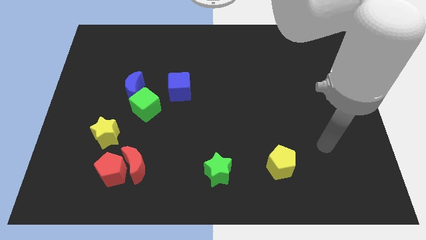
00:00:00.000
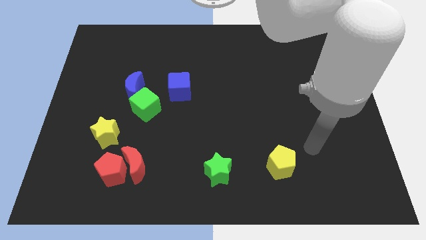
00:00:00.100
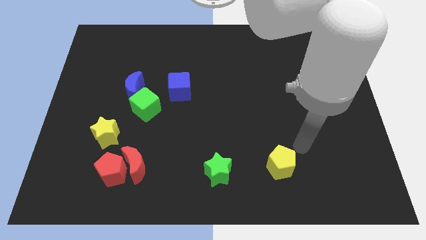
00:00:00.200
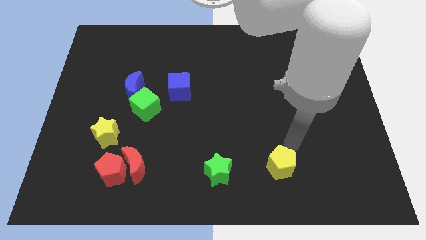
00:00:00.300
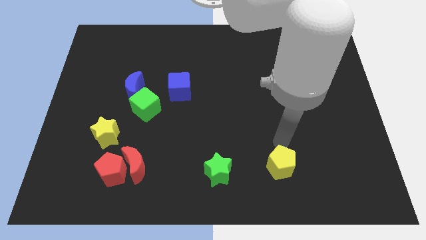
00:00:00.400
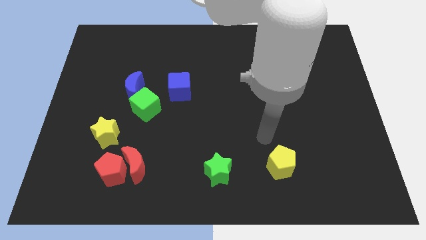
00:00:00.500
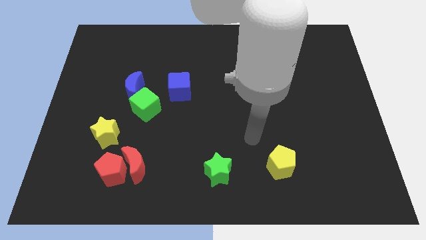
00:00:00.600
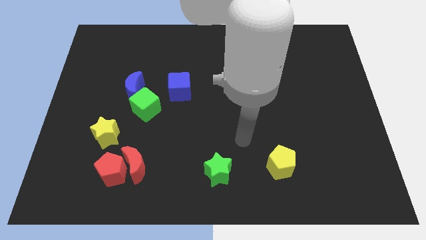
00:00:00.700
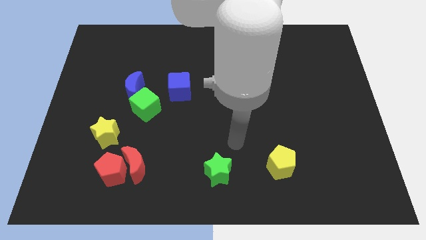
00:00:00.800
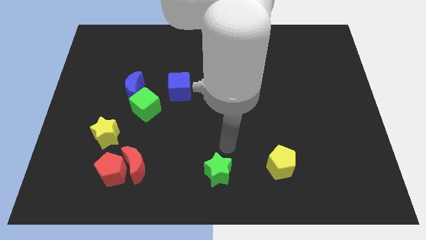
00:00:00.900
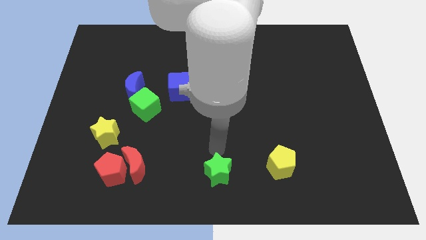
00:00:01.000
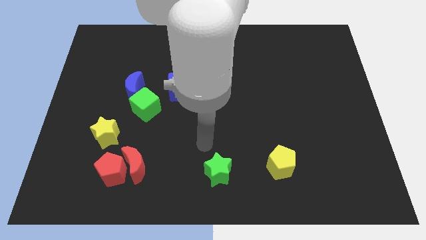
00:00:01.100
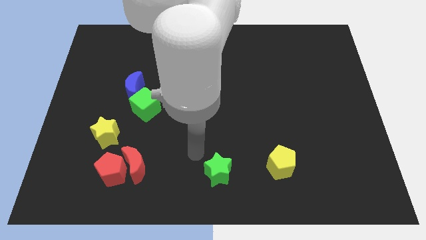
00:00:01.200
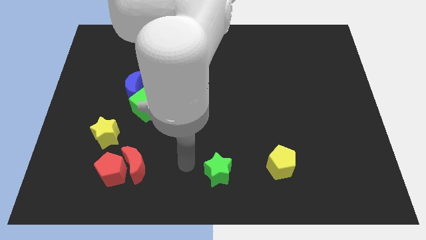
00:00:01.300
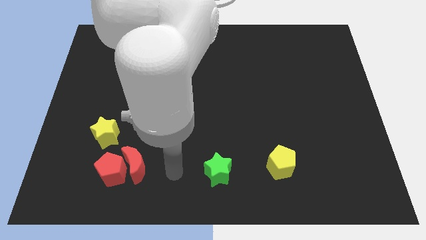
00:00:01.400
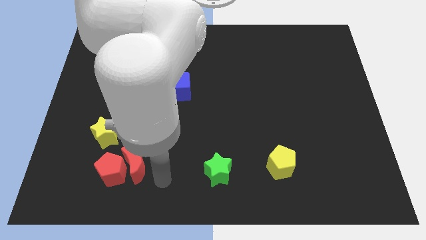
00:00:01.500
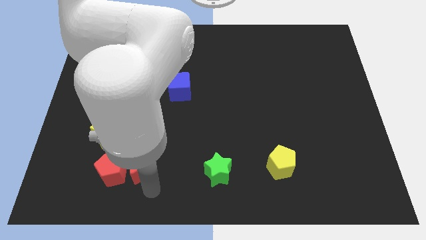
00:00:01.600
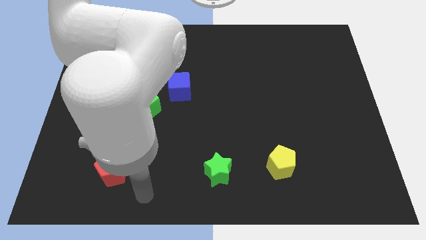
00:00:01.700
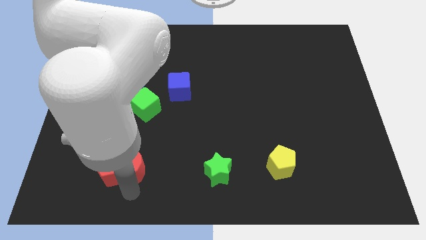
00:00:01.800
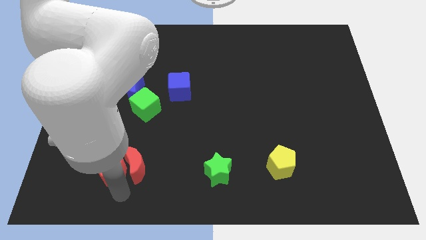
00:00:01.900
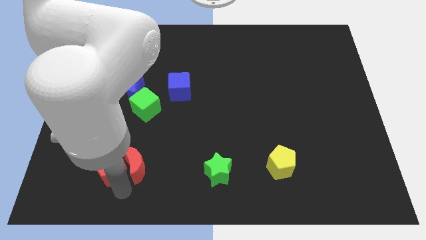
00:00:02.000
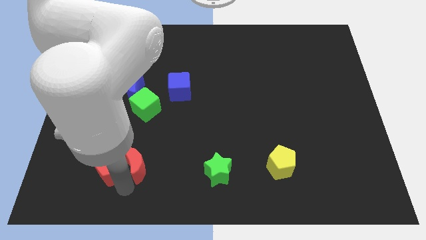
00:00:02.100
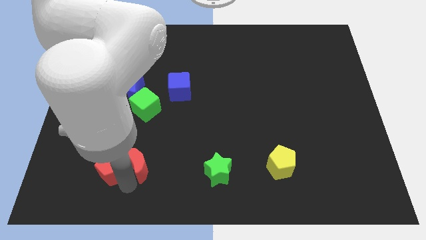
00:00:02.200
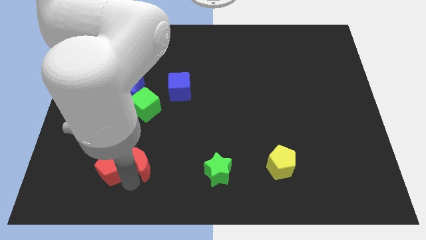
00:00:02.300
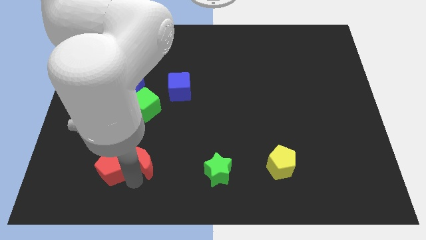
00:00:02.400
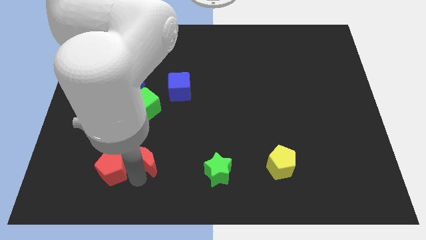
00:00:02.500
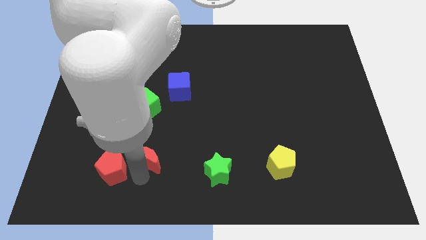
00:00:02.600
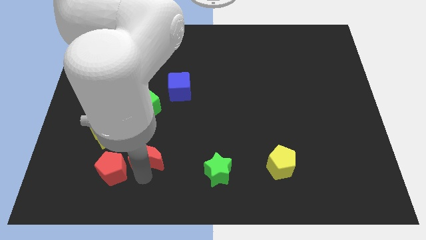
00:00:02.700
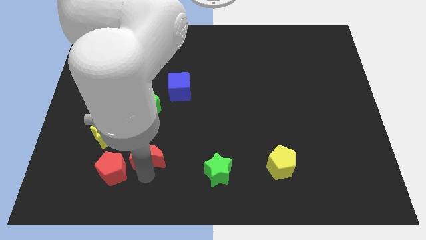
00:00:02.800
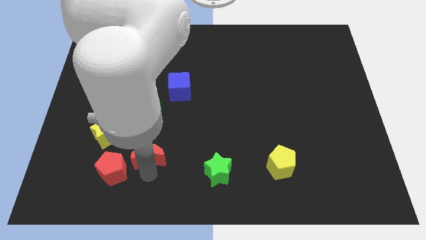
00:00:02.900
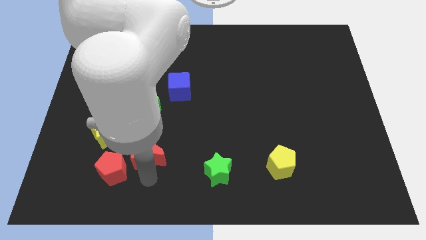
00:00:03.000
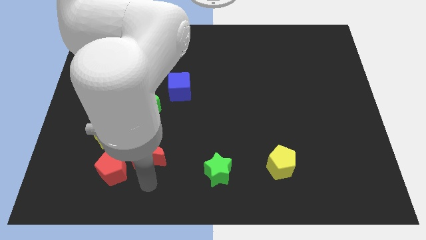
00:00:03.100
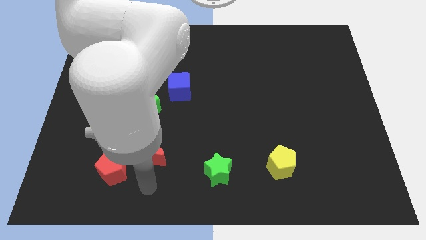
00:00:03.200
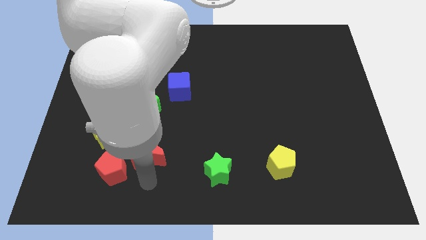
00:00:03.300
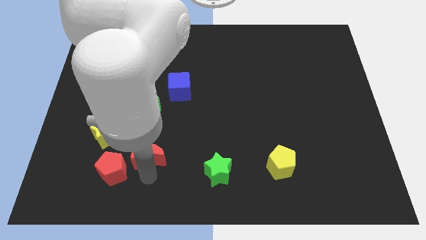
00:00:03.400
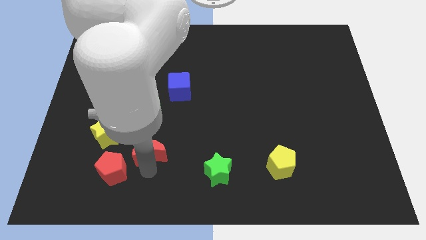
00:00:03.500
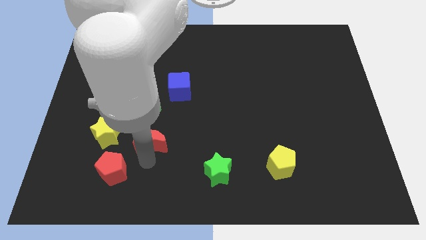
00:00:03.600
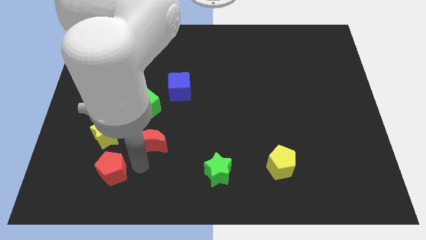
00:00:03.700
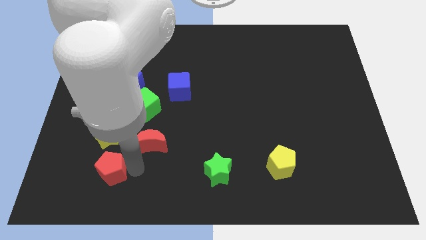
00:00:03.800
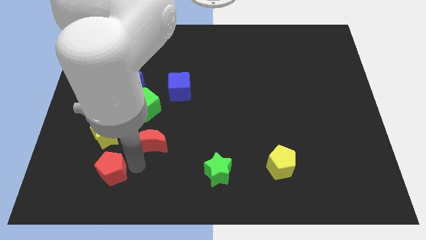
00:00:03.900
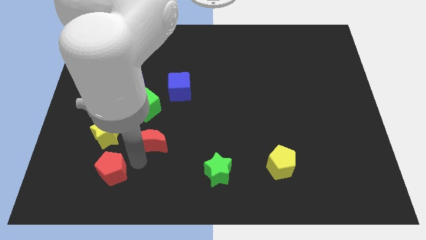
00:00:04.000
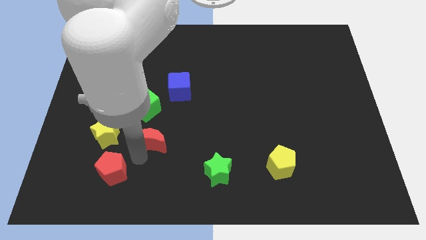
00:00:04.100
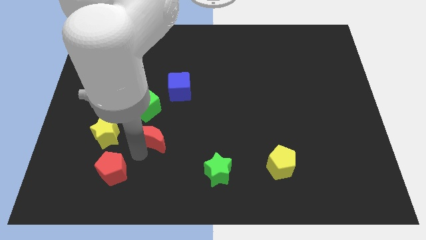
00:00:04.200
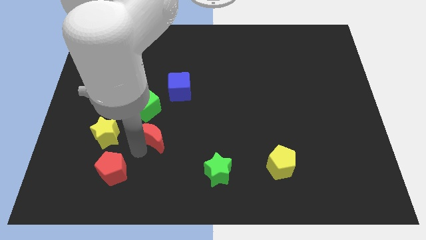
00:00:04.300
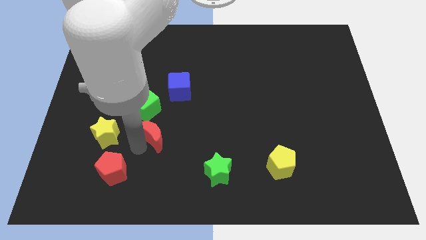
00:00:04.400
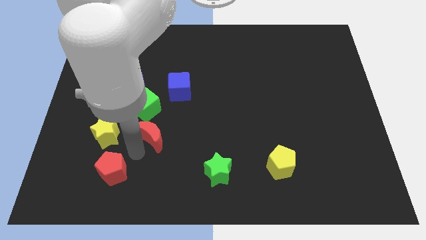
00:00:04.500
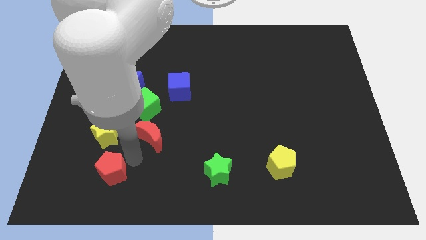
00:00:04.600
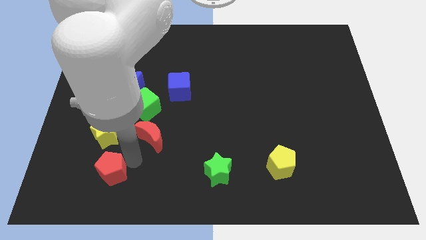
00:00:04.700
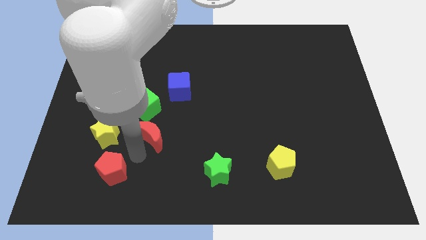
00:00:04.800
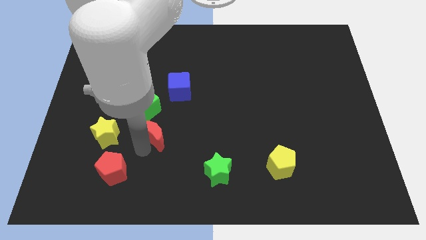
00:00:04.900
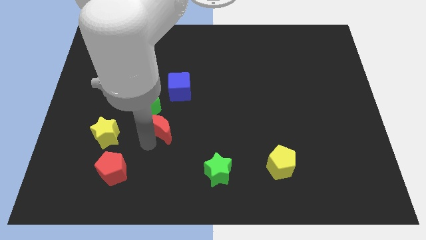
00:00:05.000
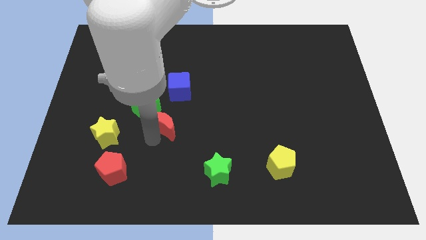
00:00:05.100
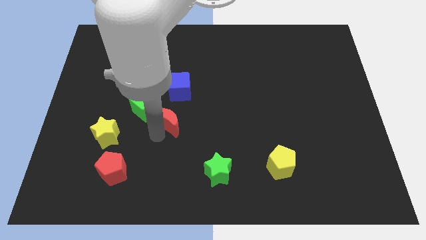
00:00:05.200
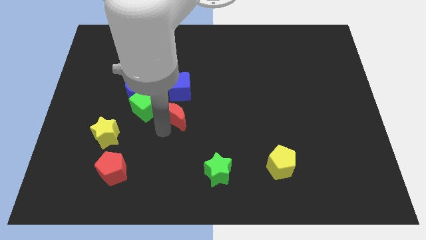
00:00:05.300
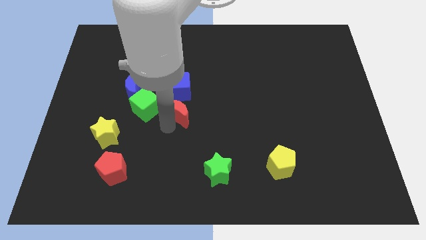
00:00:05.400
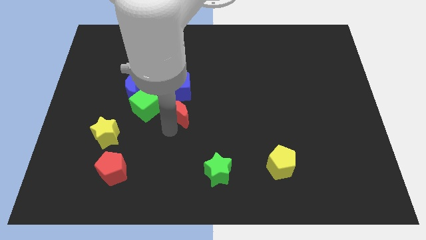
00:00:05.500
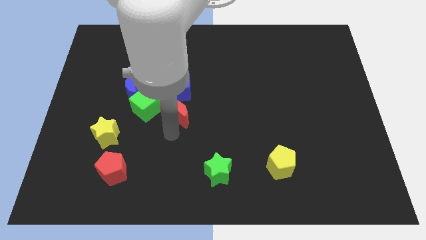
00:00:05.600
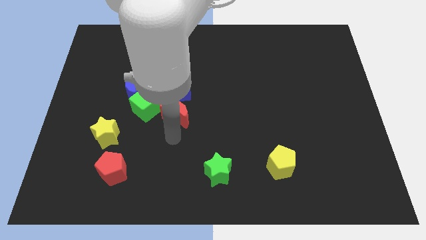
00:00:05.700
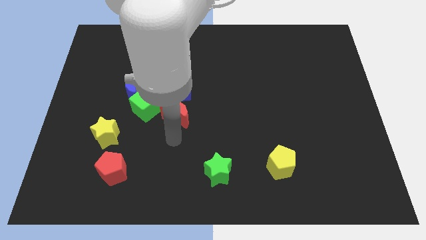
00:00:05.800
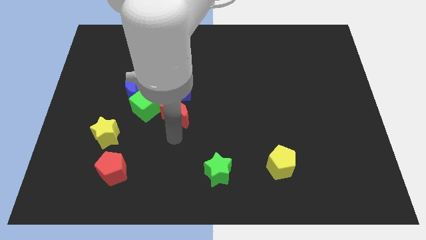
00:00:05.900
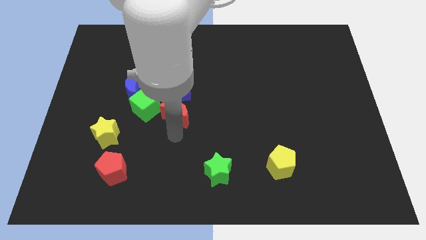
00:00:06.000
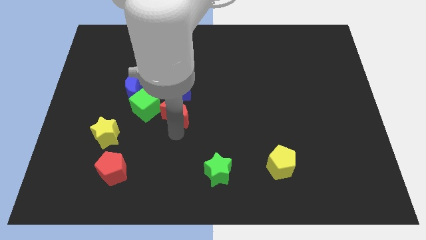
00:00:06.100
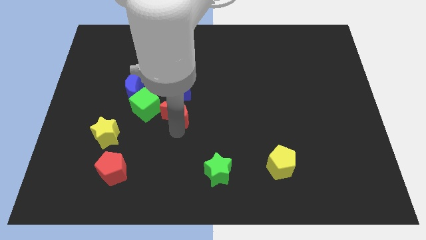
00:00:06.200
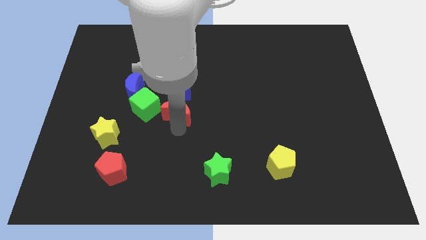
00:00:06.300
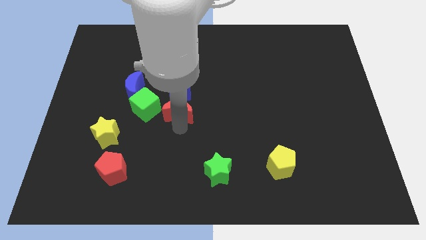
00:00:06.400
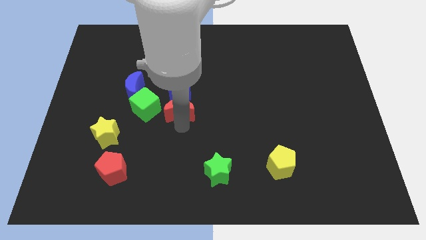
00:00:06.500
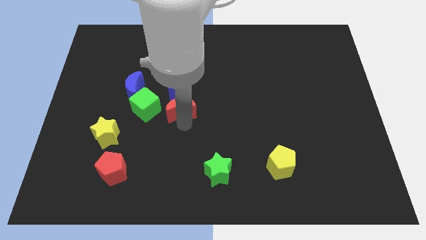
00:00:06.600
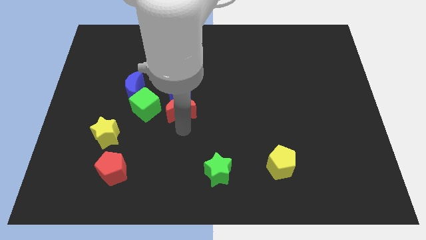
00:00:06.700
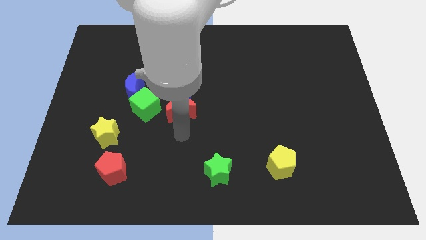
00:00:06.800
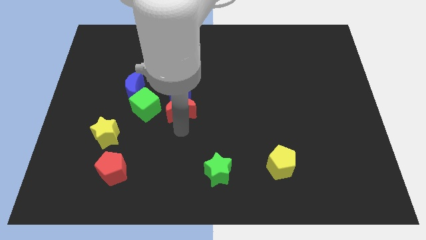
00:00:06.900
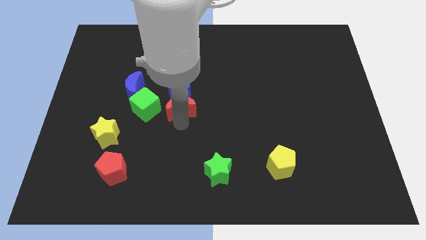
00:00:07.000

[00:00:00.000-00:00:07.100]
push the red moon towards the blue cube

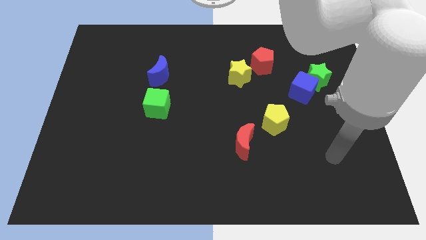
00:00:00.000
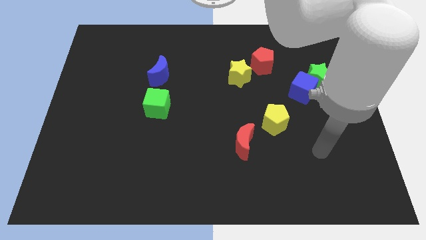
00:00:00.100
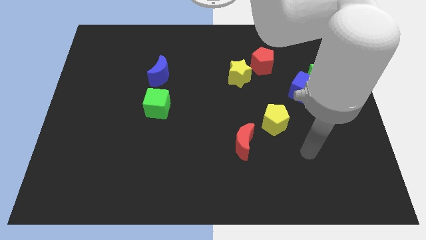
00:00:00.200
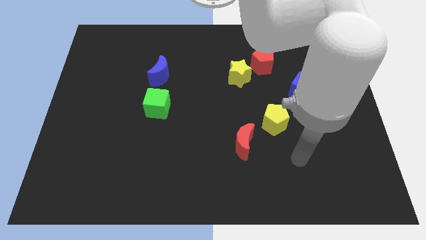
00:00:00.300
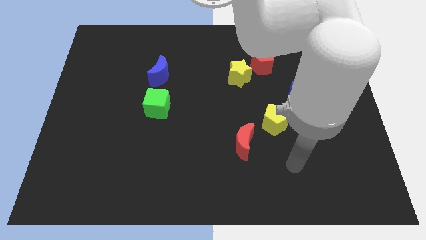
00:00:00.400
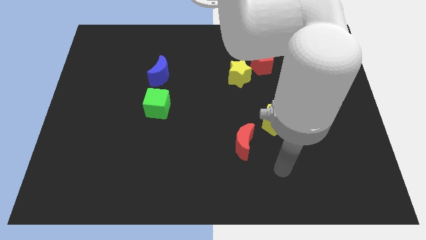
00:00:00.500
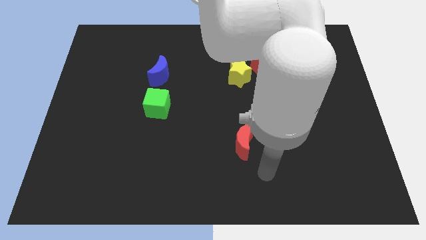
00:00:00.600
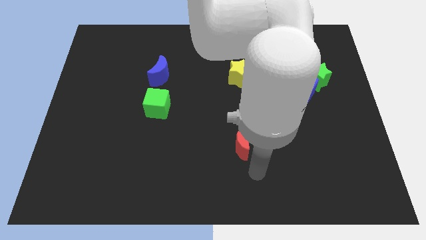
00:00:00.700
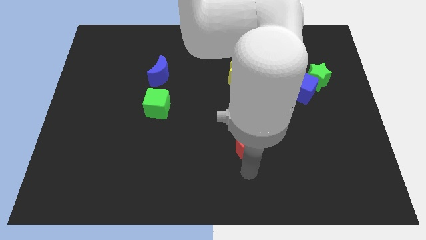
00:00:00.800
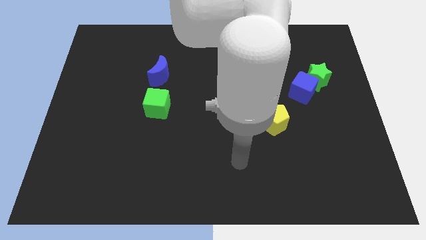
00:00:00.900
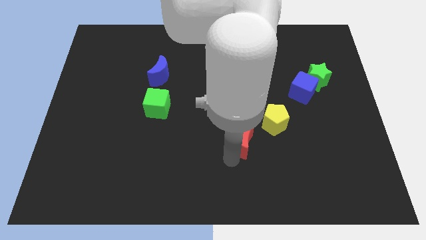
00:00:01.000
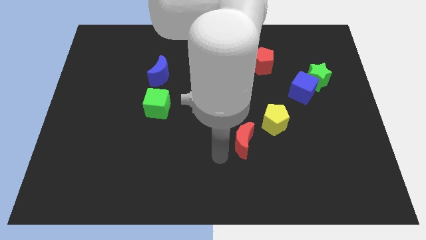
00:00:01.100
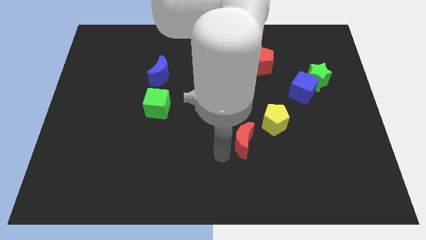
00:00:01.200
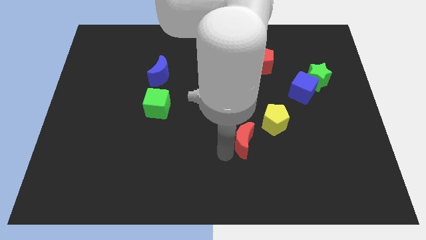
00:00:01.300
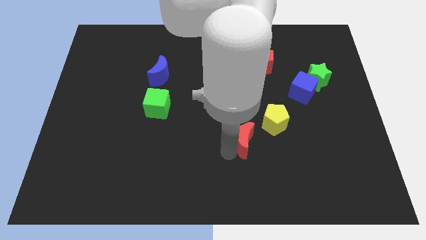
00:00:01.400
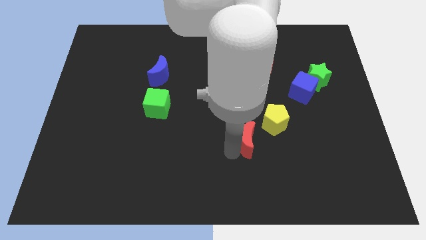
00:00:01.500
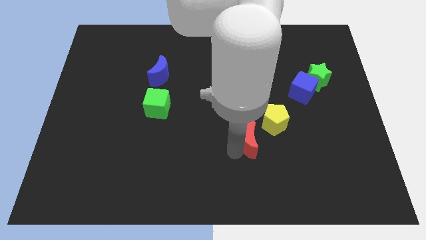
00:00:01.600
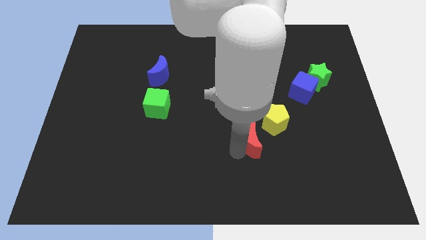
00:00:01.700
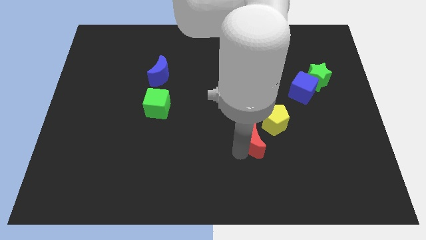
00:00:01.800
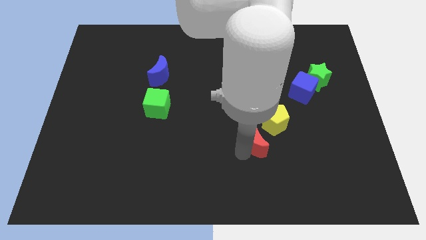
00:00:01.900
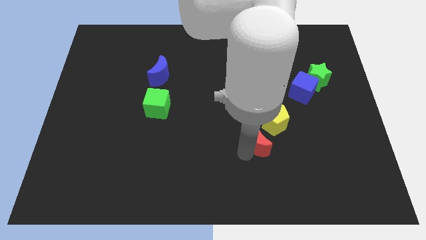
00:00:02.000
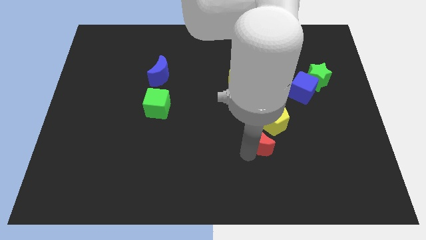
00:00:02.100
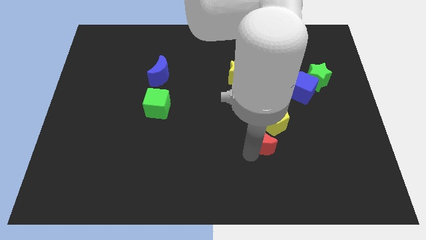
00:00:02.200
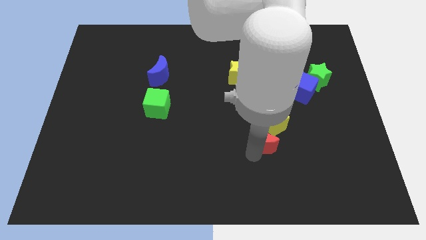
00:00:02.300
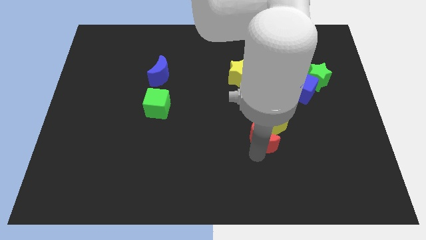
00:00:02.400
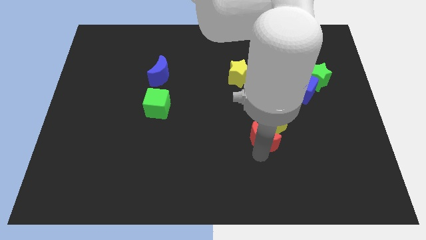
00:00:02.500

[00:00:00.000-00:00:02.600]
push the red moon close to the yellow pentagon
